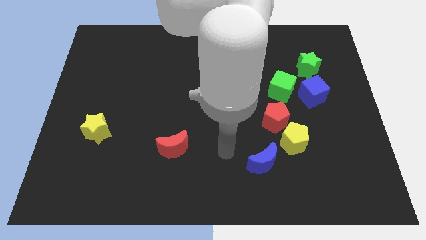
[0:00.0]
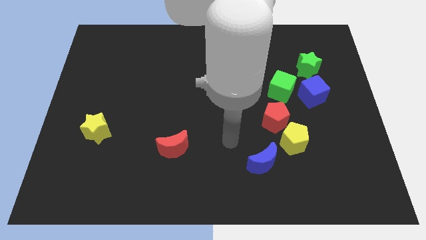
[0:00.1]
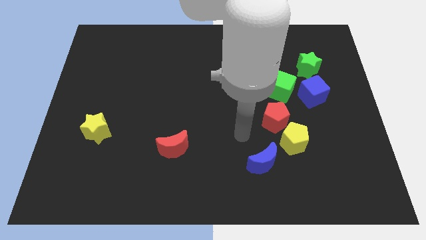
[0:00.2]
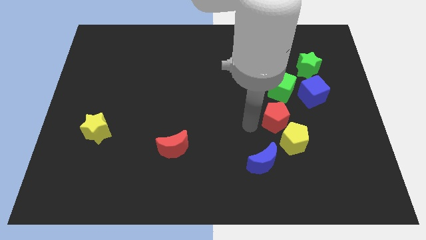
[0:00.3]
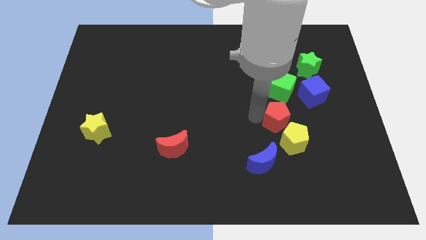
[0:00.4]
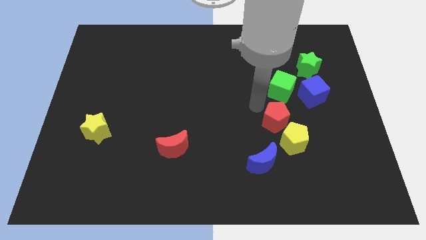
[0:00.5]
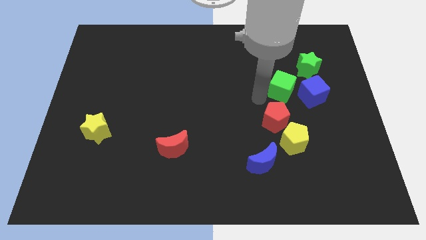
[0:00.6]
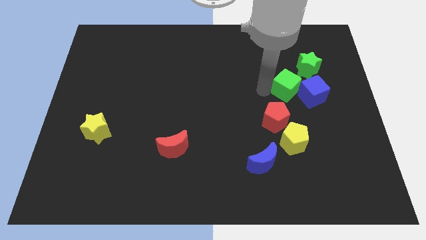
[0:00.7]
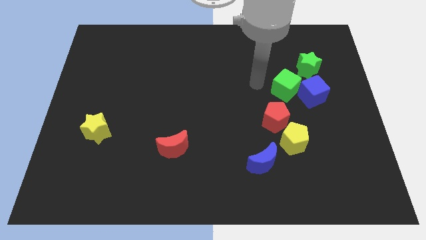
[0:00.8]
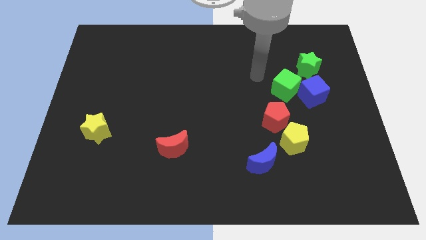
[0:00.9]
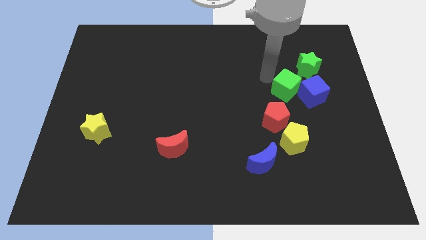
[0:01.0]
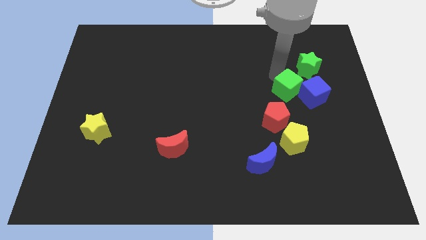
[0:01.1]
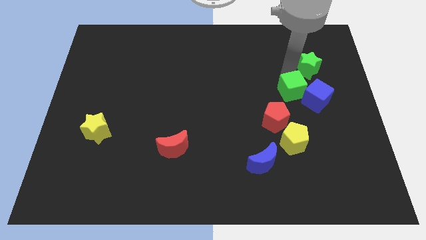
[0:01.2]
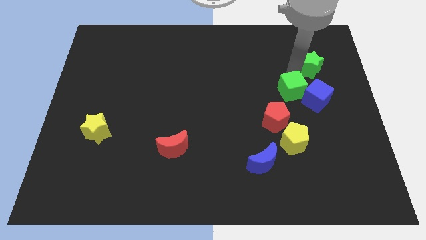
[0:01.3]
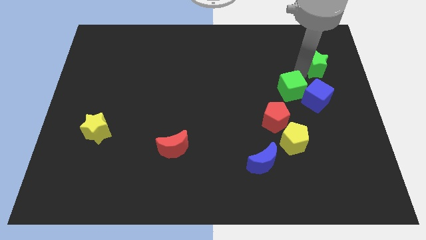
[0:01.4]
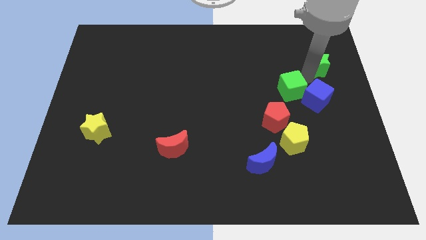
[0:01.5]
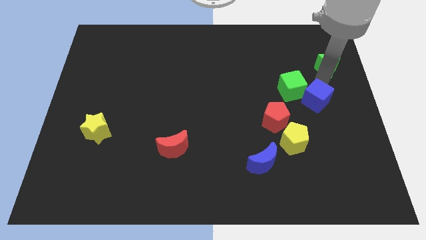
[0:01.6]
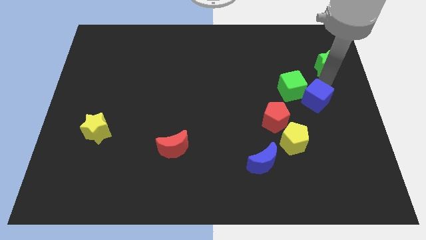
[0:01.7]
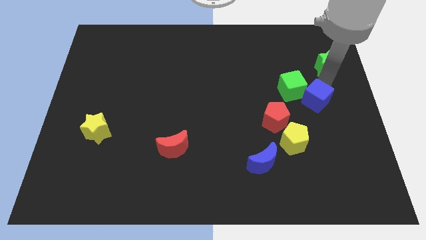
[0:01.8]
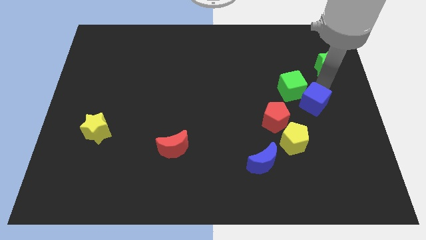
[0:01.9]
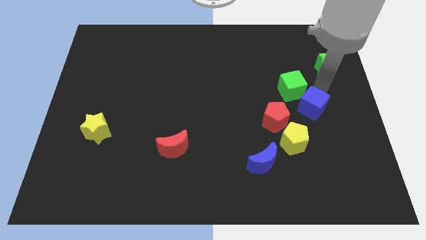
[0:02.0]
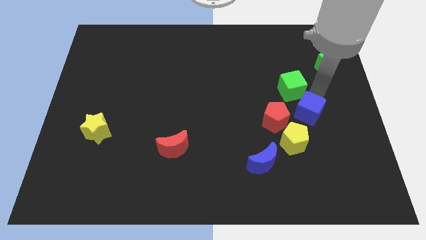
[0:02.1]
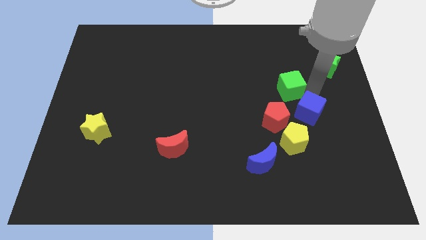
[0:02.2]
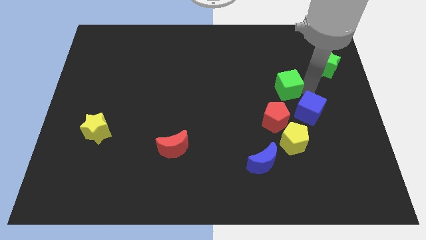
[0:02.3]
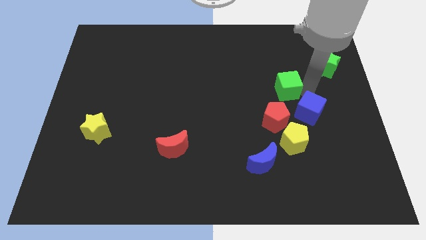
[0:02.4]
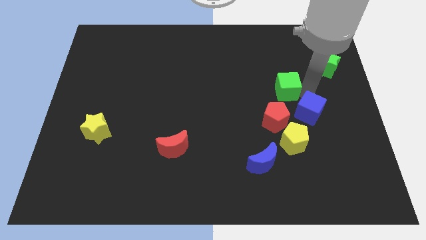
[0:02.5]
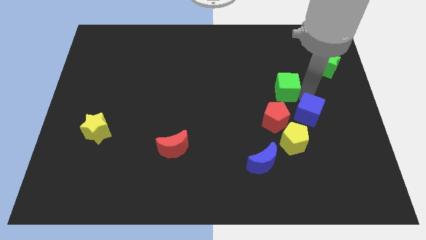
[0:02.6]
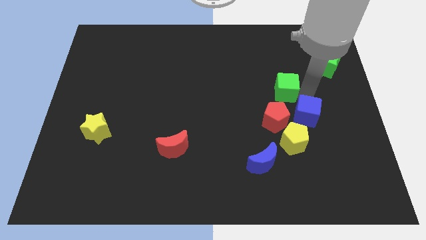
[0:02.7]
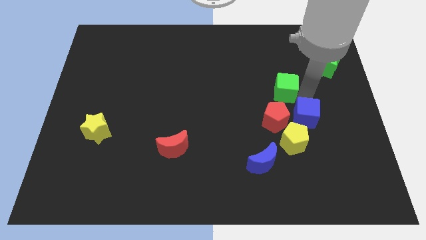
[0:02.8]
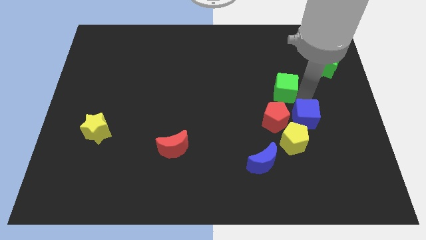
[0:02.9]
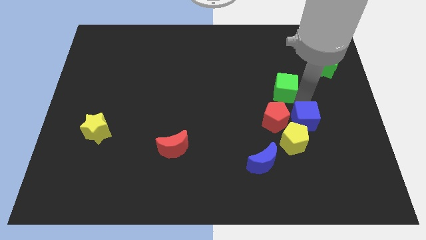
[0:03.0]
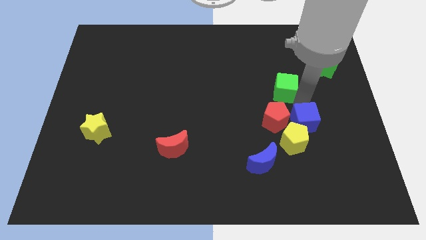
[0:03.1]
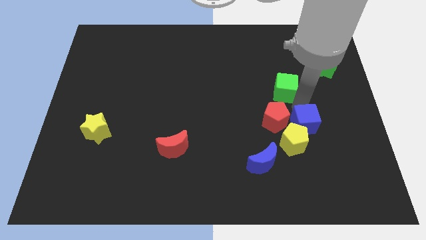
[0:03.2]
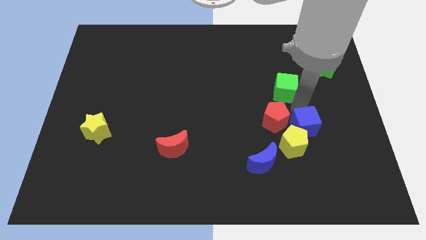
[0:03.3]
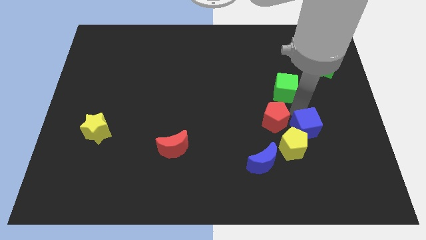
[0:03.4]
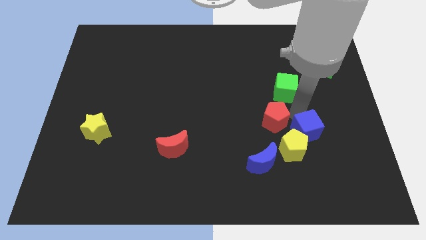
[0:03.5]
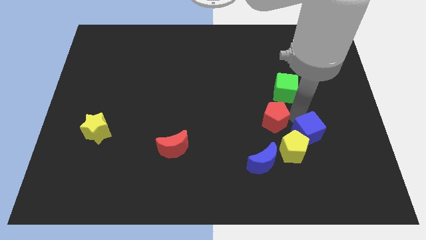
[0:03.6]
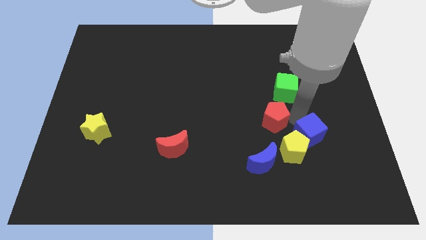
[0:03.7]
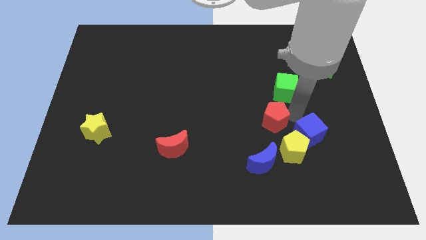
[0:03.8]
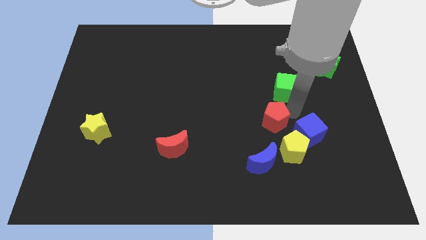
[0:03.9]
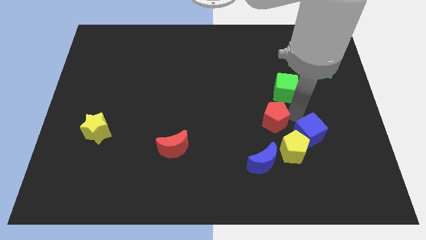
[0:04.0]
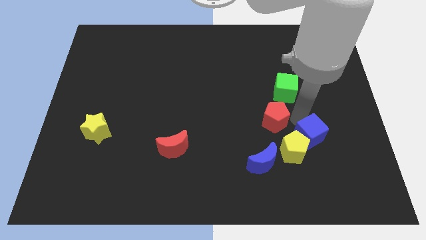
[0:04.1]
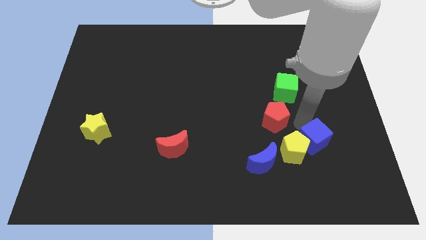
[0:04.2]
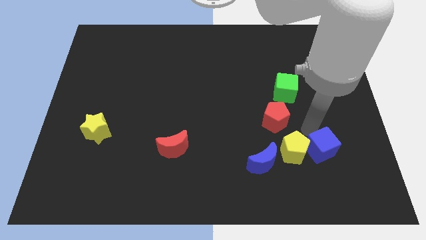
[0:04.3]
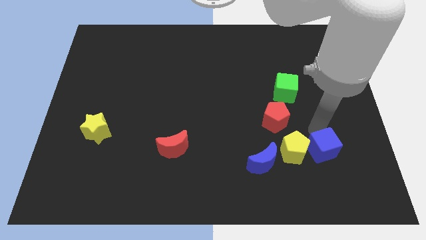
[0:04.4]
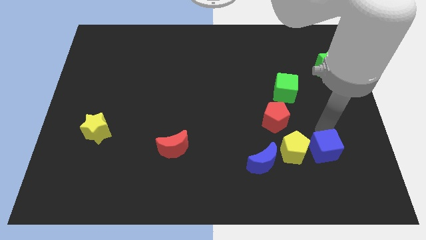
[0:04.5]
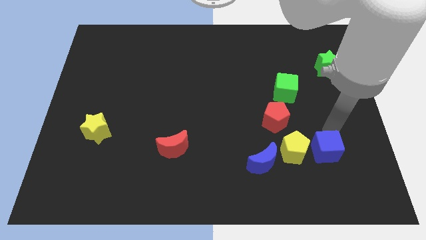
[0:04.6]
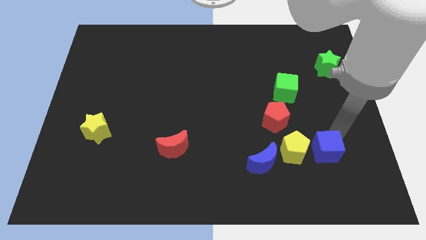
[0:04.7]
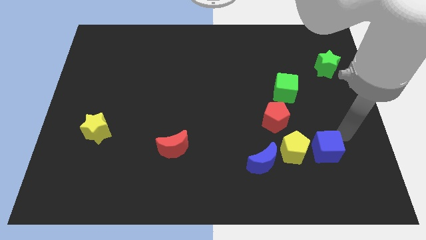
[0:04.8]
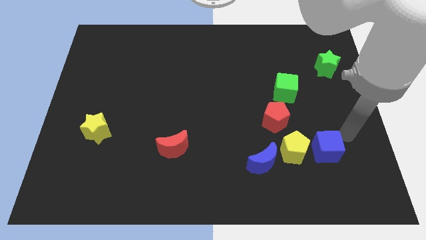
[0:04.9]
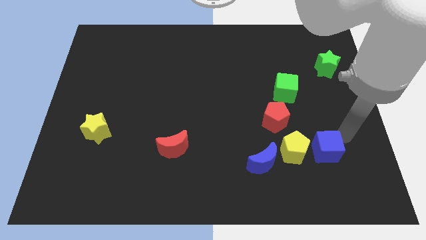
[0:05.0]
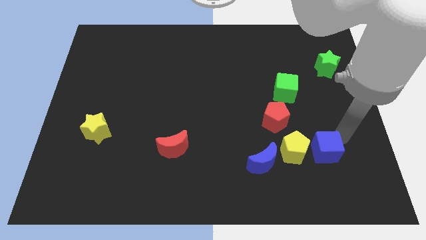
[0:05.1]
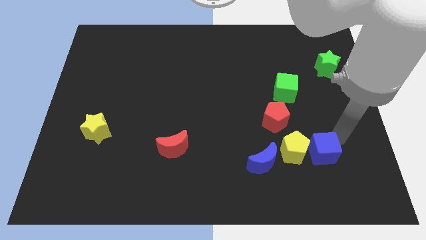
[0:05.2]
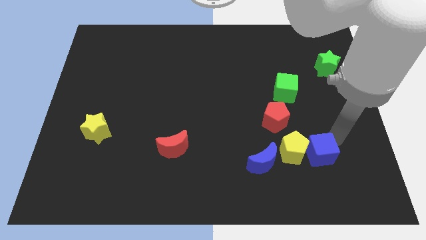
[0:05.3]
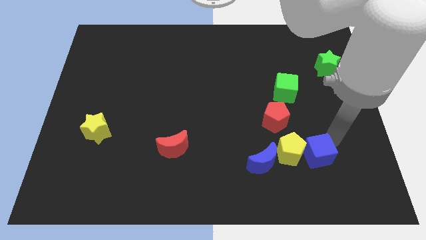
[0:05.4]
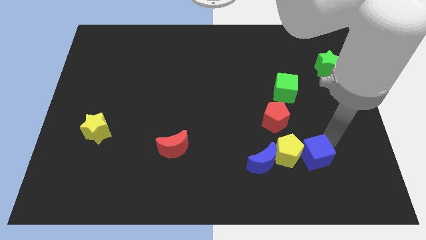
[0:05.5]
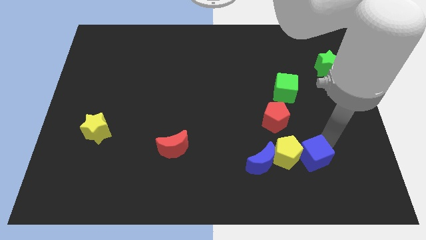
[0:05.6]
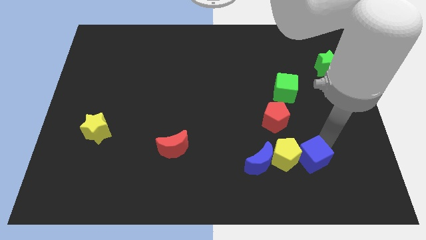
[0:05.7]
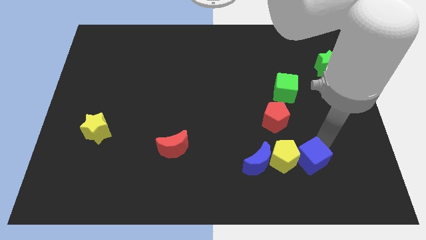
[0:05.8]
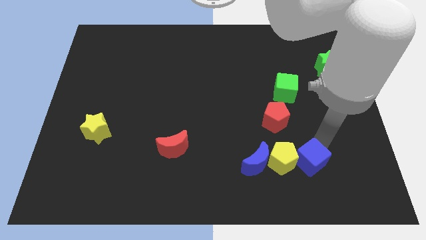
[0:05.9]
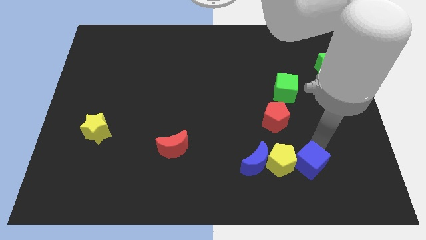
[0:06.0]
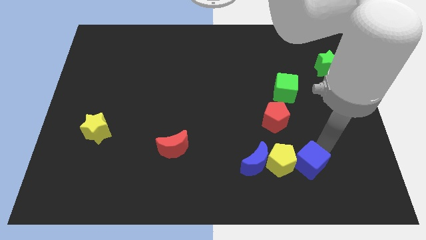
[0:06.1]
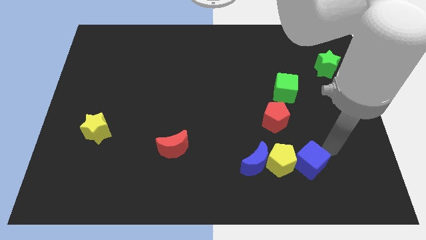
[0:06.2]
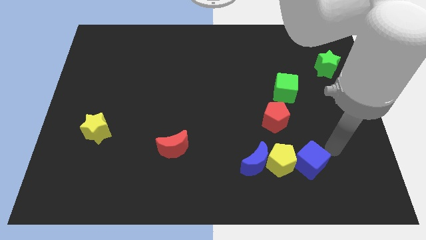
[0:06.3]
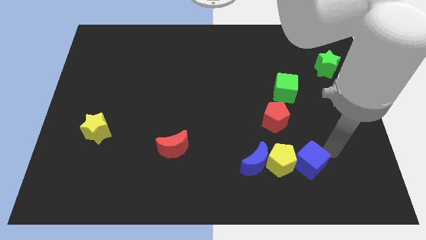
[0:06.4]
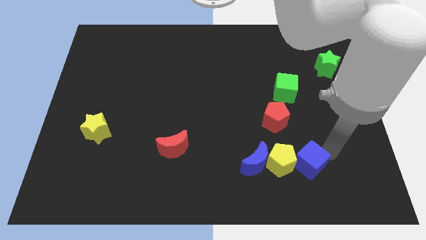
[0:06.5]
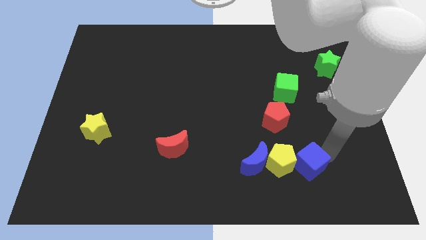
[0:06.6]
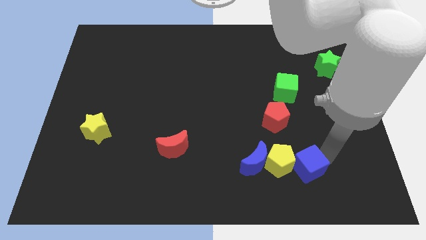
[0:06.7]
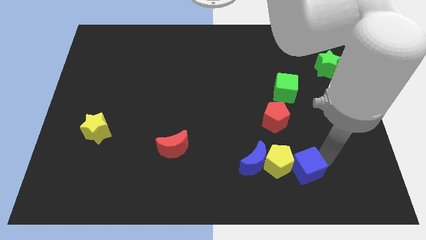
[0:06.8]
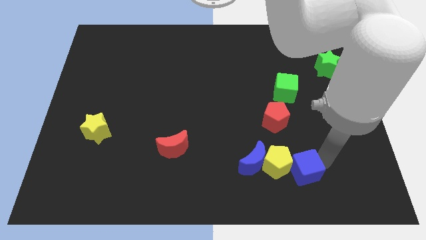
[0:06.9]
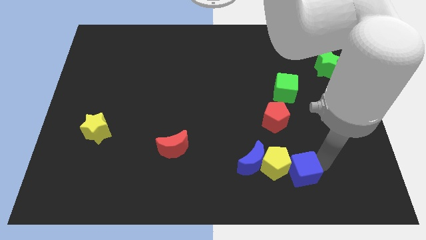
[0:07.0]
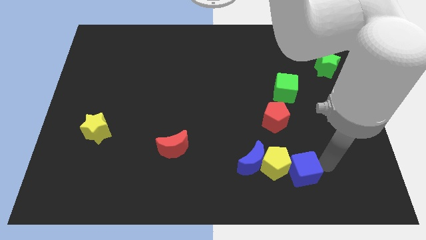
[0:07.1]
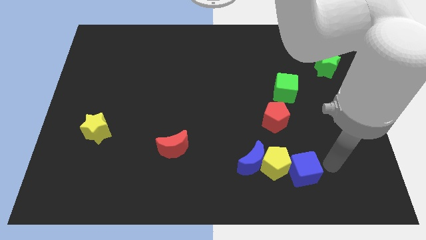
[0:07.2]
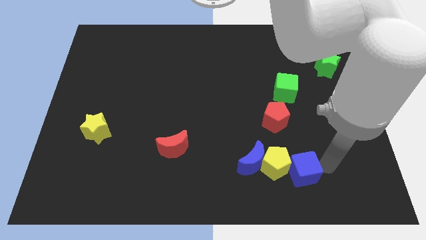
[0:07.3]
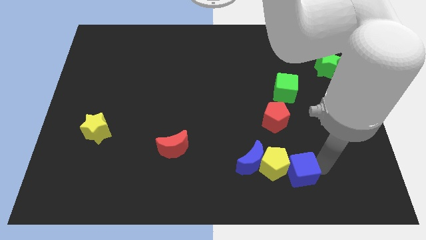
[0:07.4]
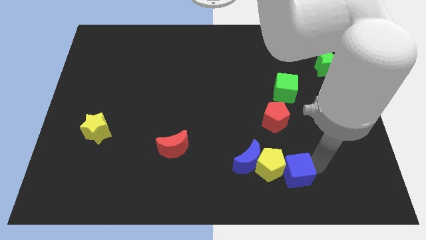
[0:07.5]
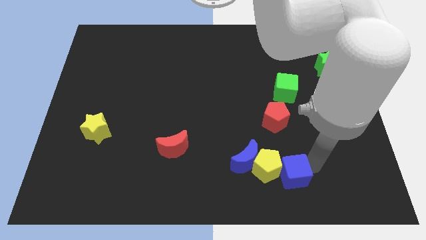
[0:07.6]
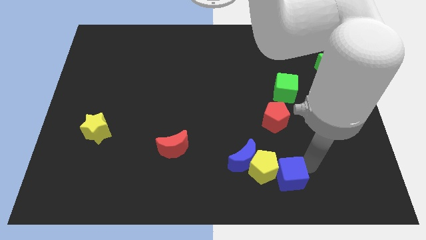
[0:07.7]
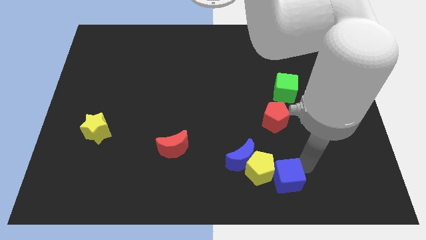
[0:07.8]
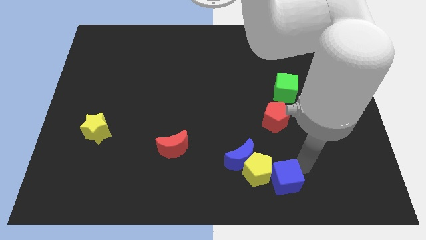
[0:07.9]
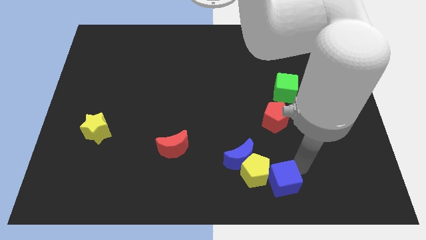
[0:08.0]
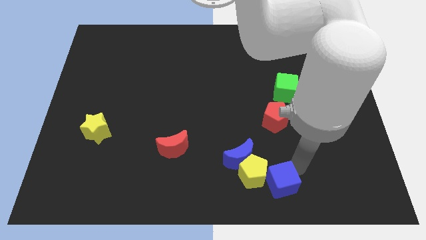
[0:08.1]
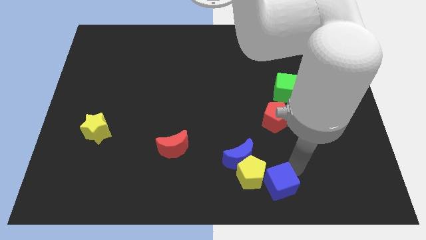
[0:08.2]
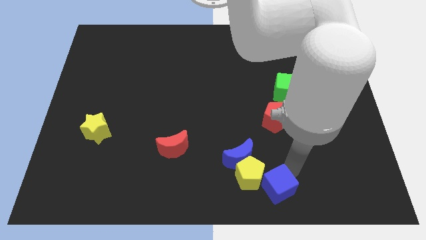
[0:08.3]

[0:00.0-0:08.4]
slide the blue cube to the bottom
